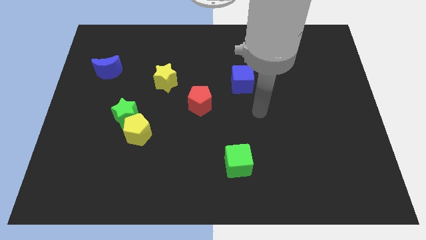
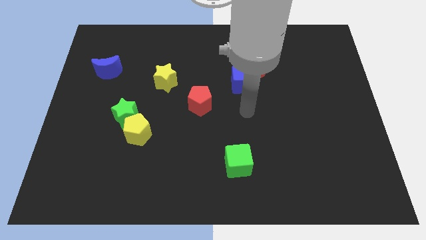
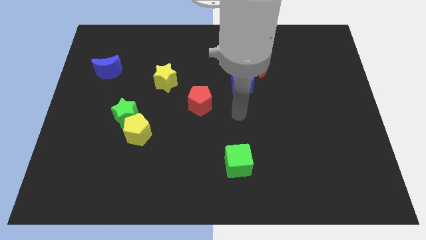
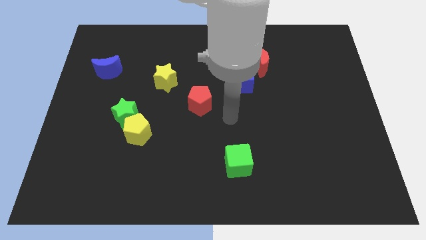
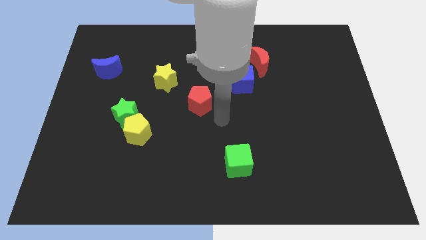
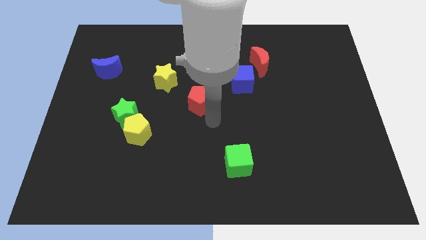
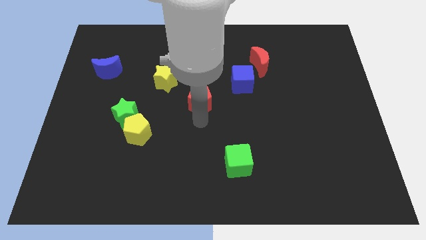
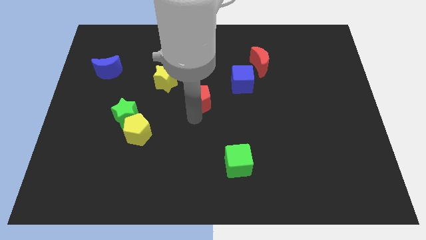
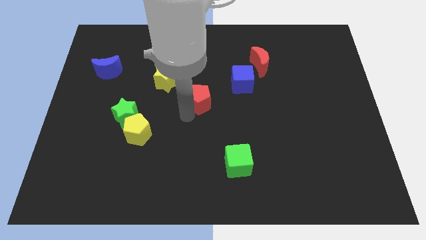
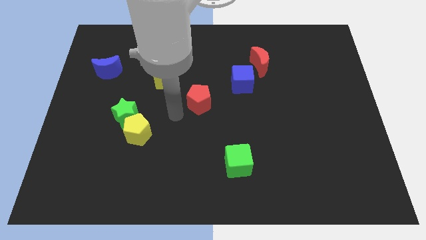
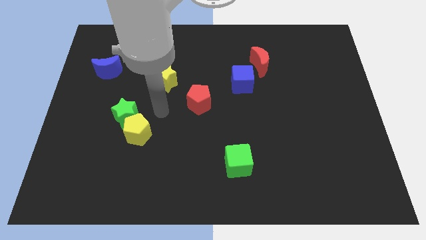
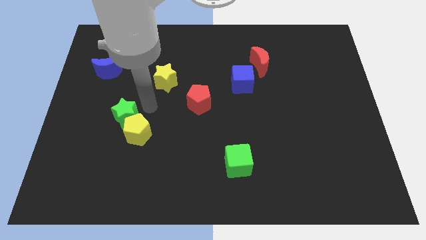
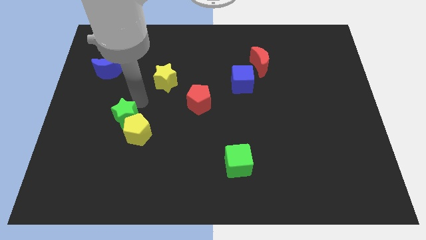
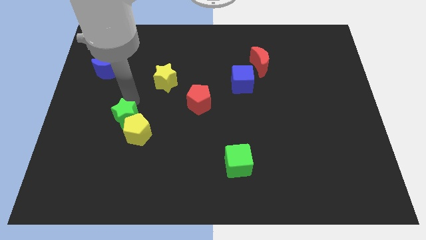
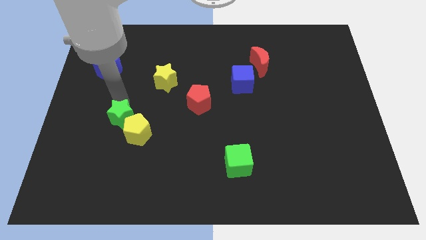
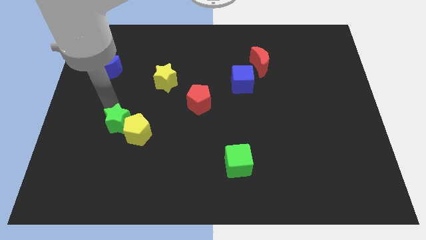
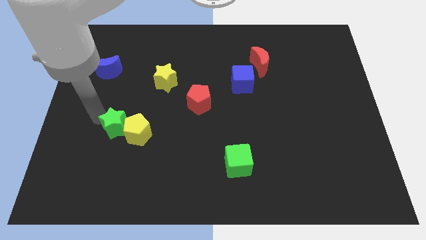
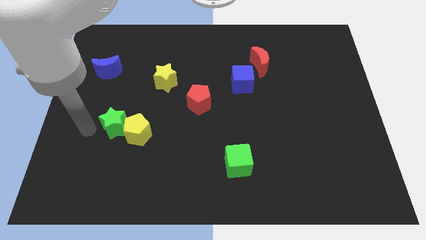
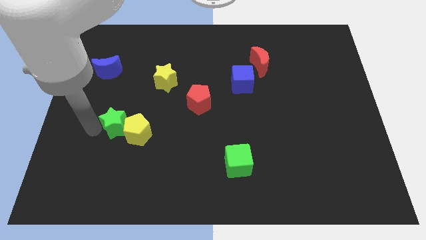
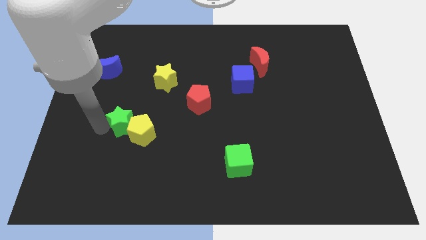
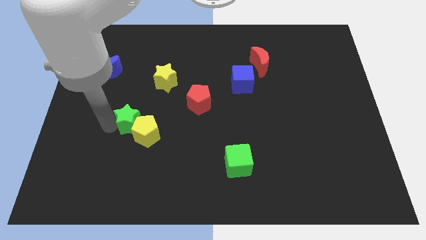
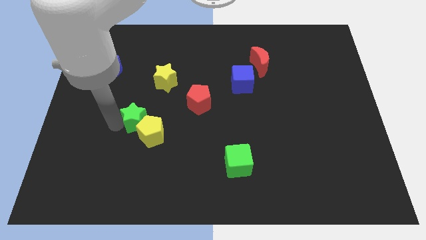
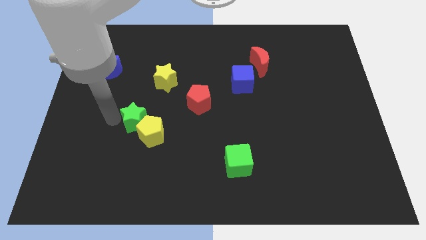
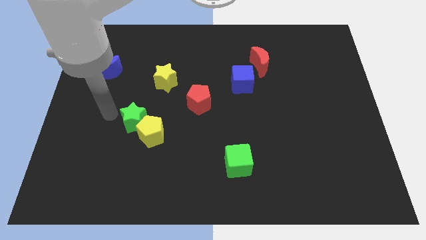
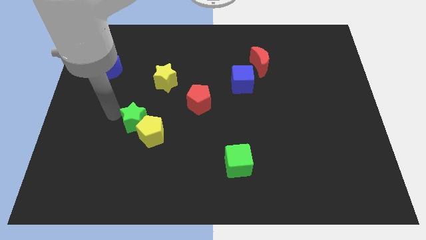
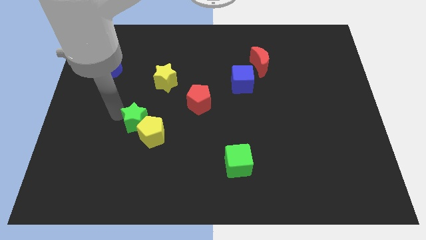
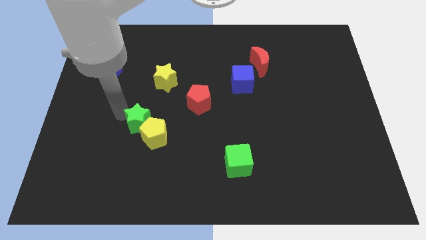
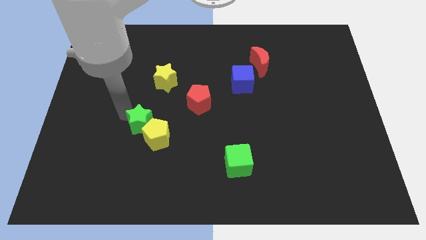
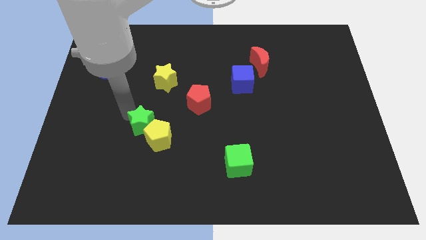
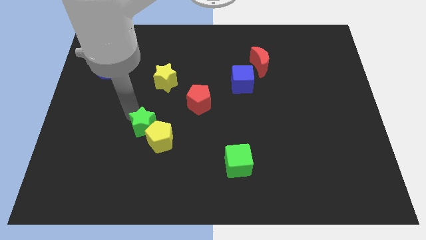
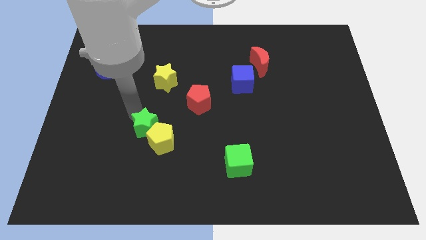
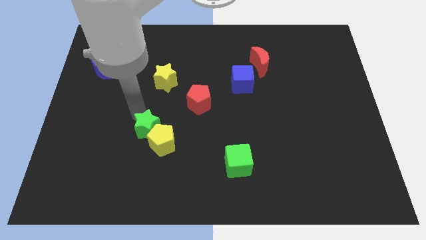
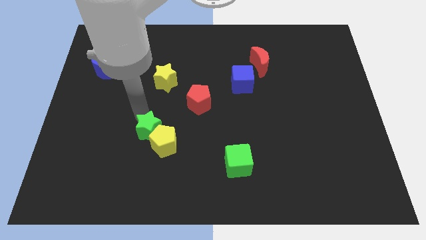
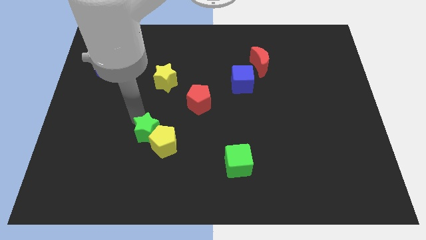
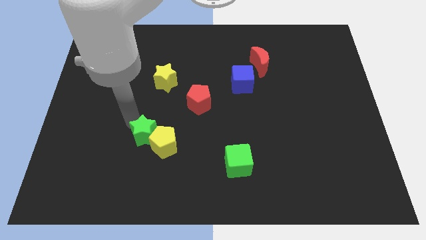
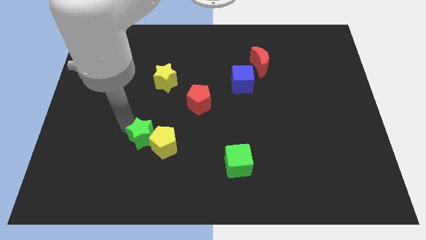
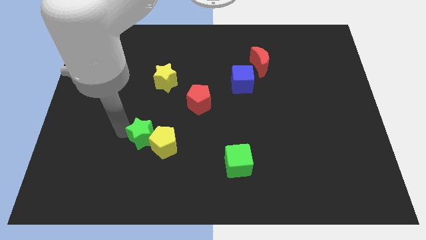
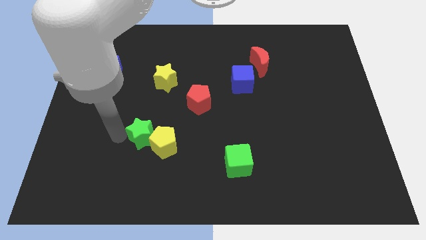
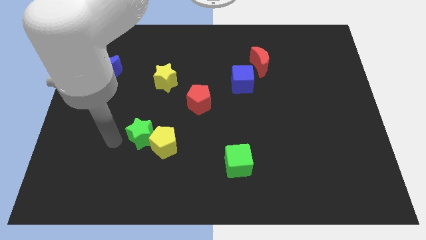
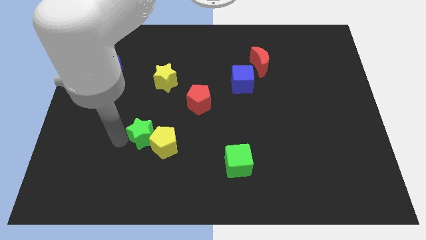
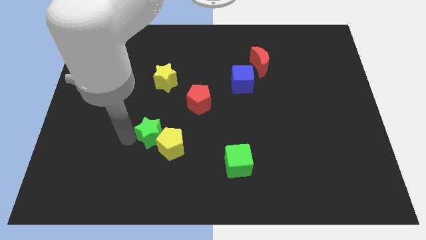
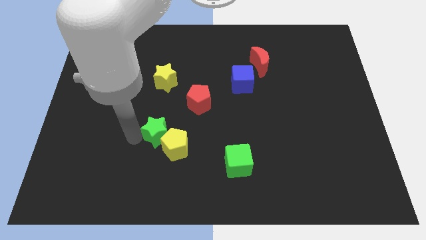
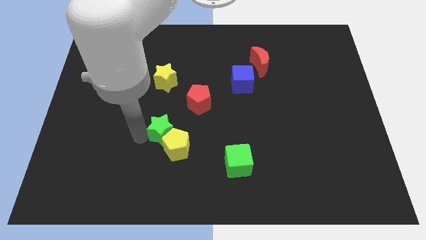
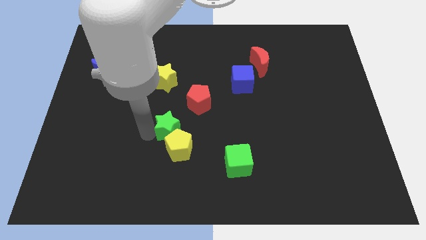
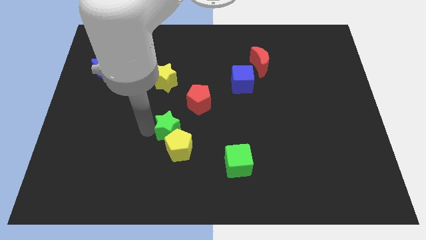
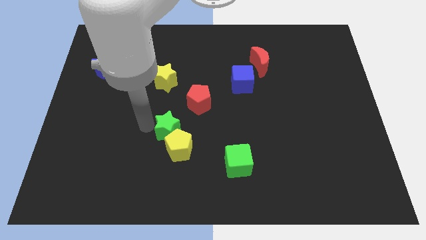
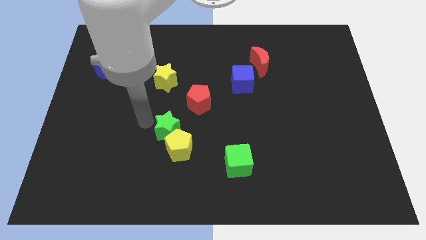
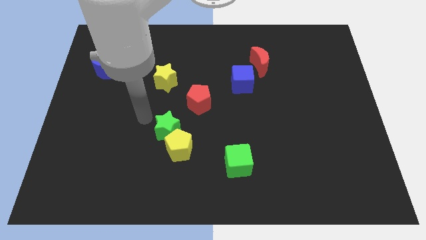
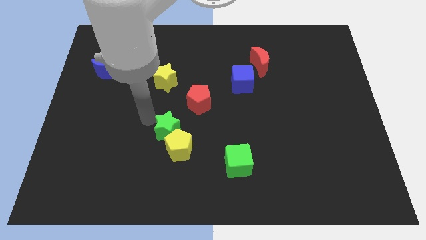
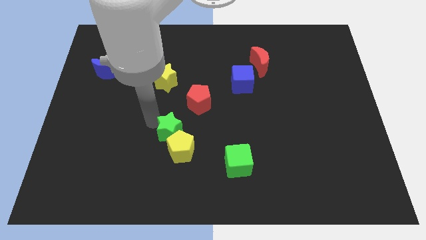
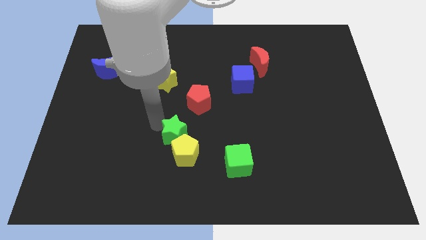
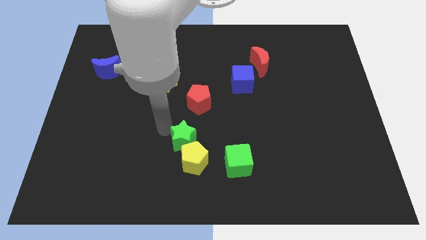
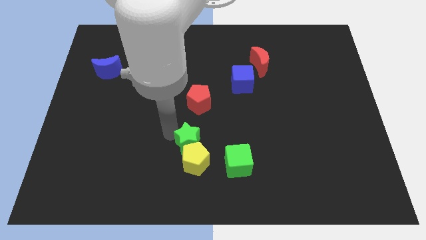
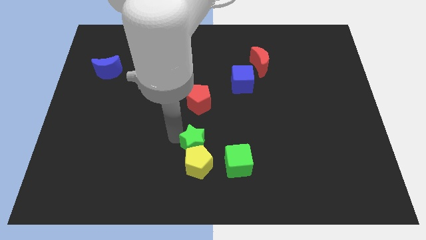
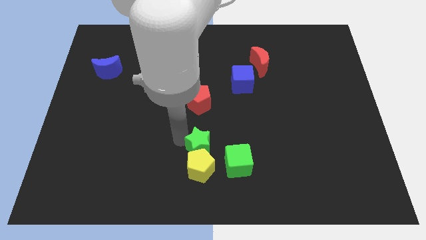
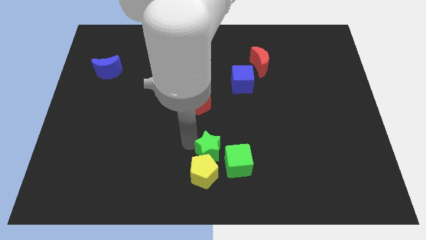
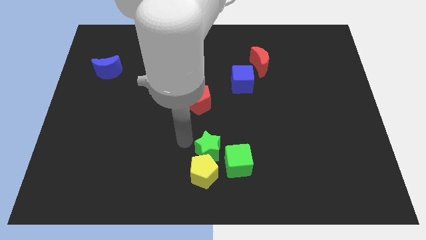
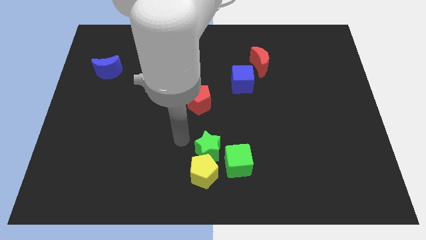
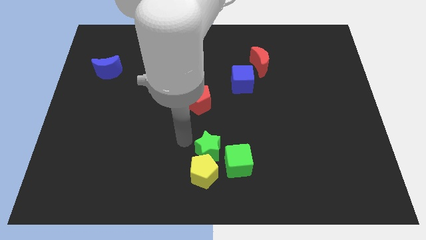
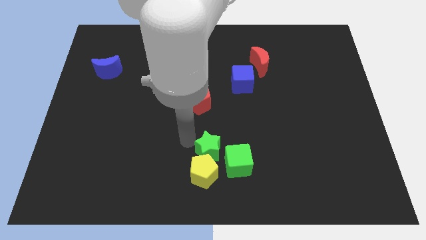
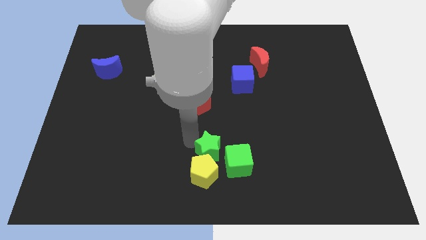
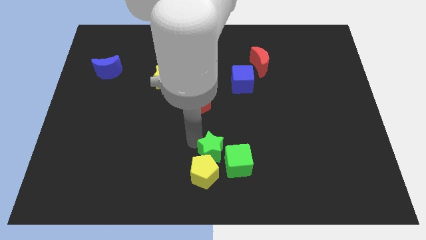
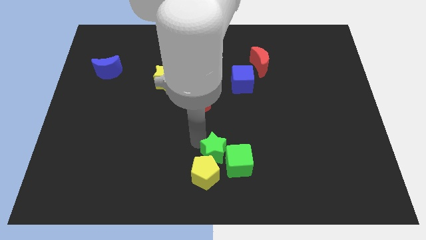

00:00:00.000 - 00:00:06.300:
push the green star to the green cube
